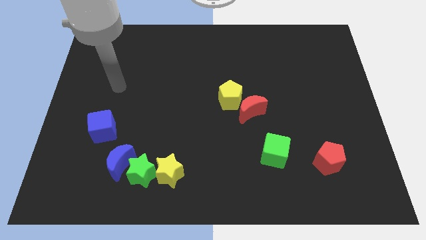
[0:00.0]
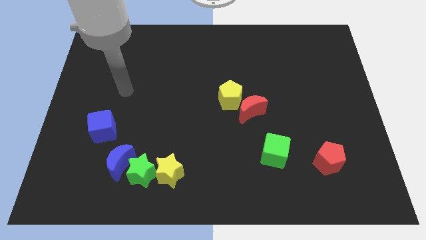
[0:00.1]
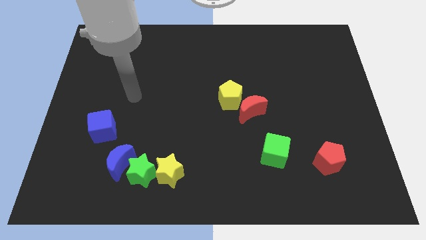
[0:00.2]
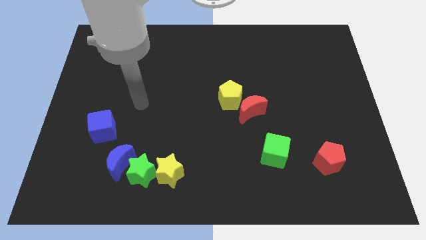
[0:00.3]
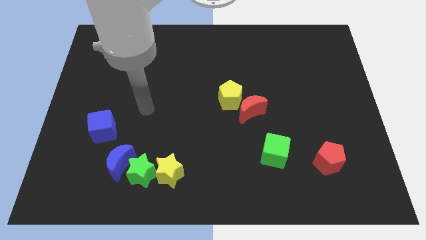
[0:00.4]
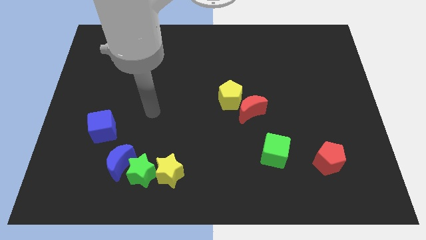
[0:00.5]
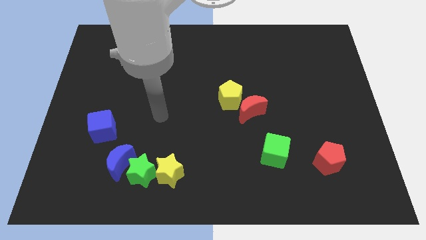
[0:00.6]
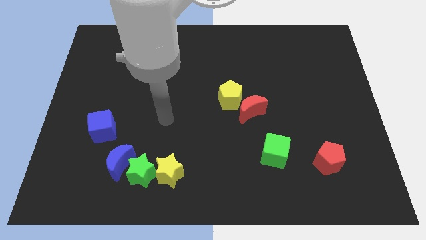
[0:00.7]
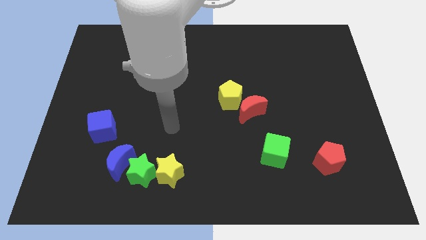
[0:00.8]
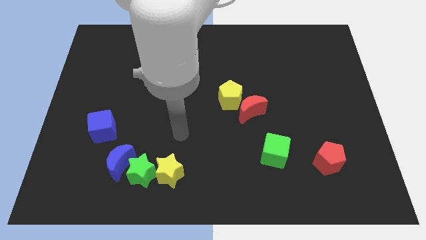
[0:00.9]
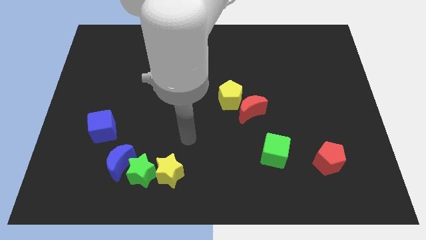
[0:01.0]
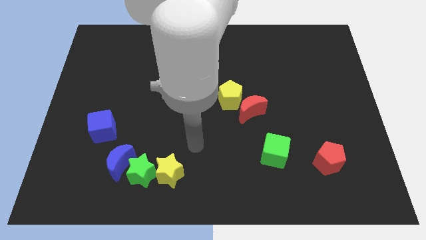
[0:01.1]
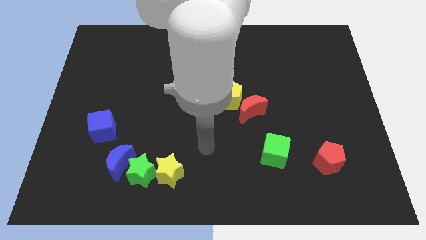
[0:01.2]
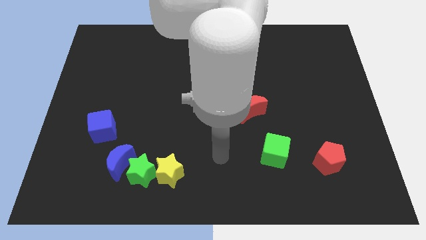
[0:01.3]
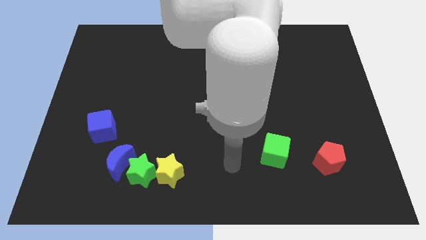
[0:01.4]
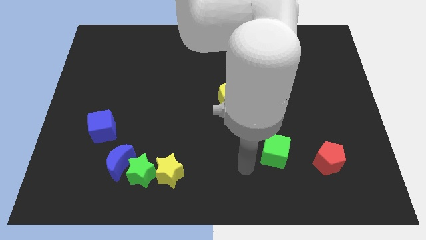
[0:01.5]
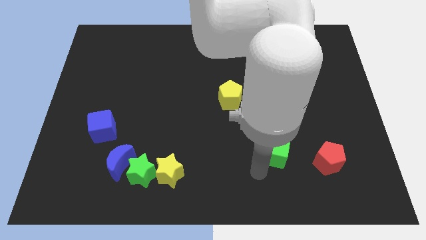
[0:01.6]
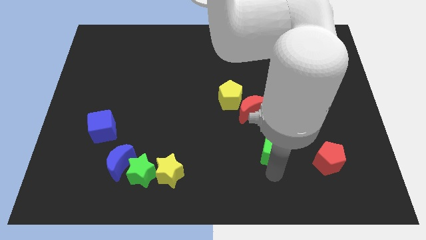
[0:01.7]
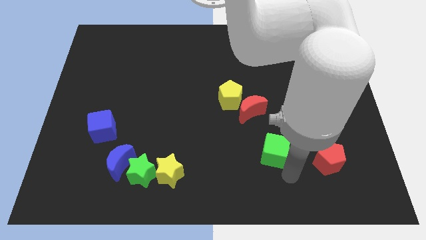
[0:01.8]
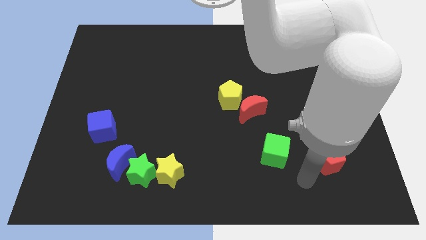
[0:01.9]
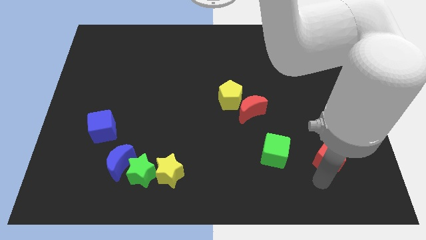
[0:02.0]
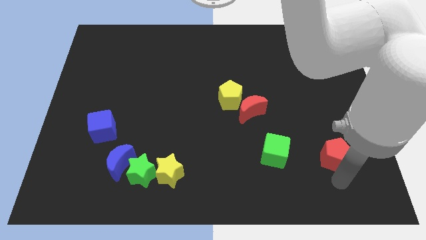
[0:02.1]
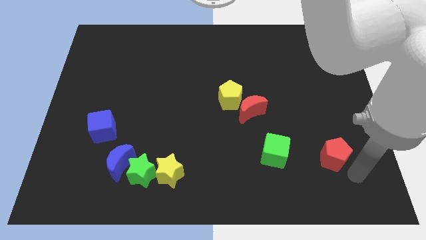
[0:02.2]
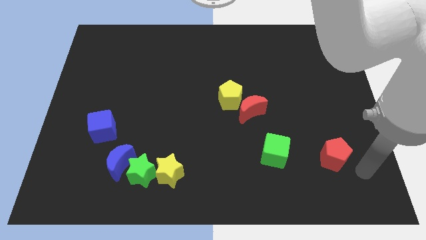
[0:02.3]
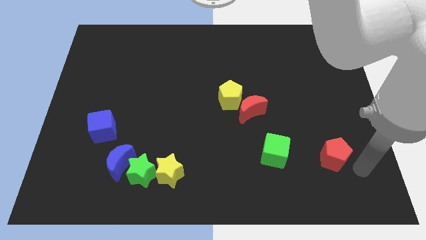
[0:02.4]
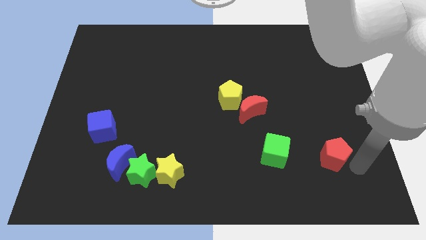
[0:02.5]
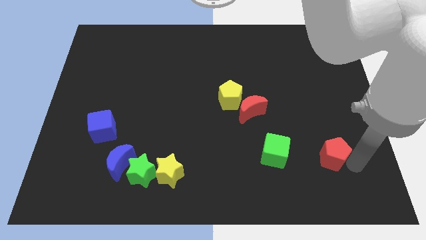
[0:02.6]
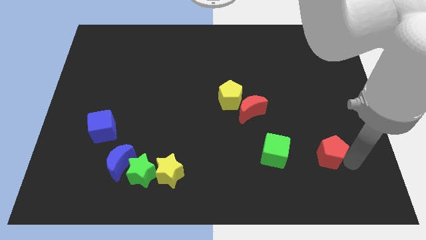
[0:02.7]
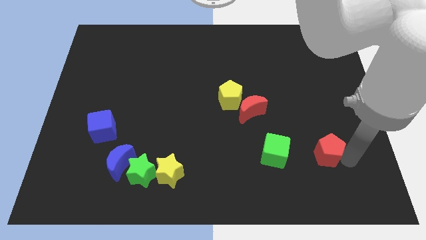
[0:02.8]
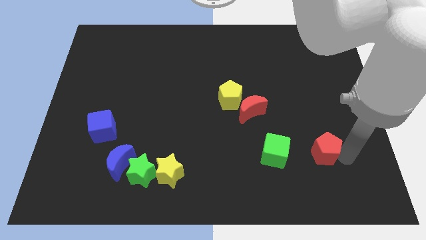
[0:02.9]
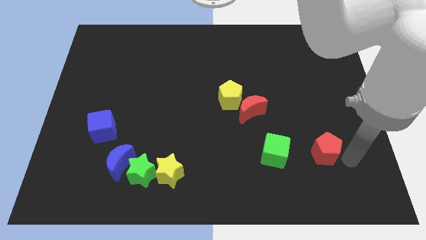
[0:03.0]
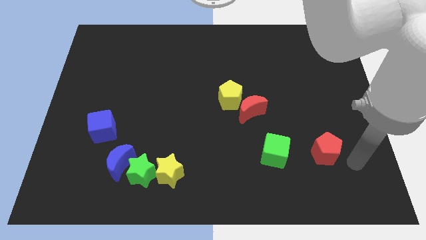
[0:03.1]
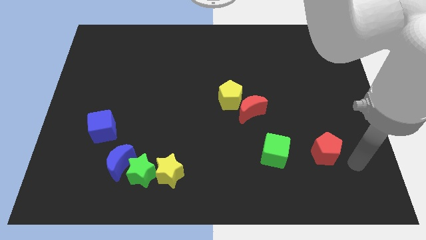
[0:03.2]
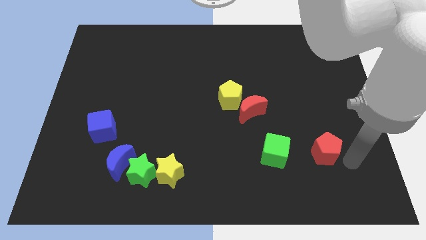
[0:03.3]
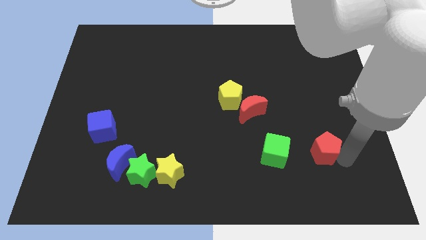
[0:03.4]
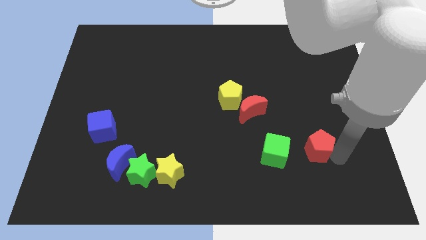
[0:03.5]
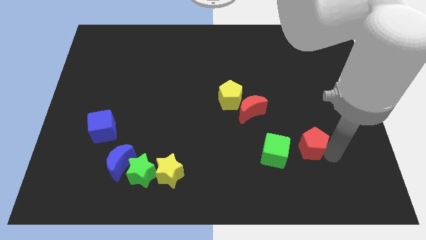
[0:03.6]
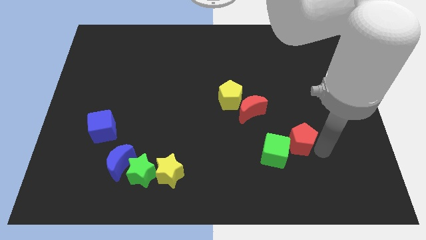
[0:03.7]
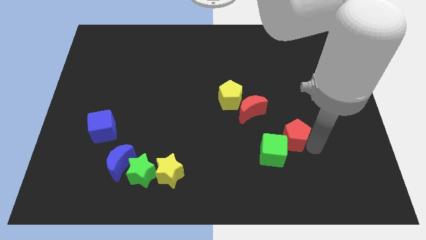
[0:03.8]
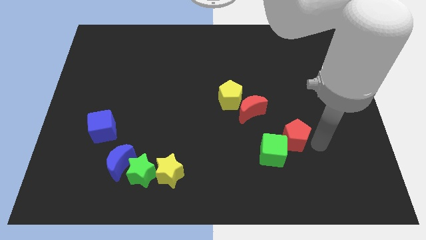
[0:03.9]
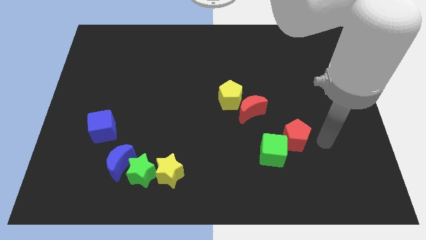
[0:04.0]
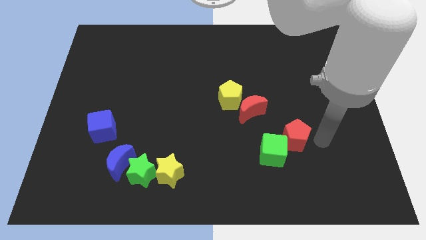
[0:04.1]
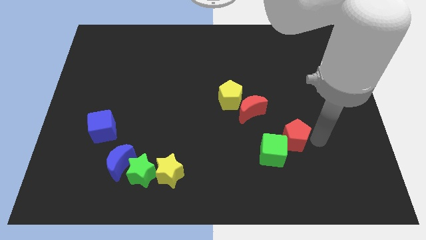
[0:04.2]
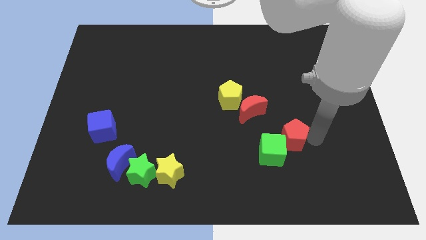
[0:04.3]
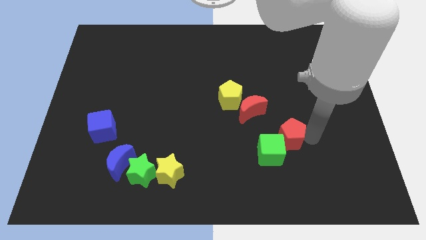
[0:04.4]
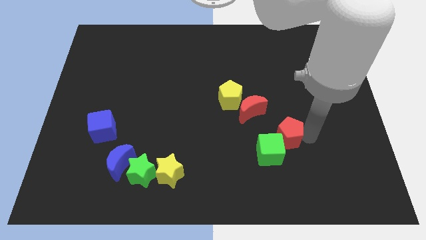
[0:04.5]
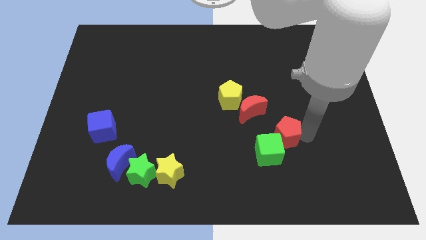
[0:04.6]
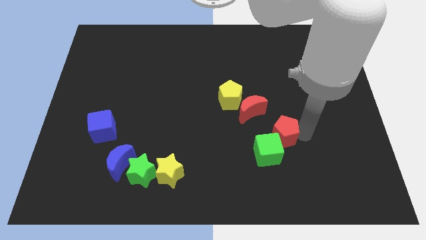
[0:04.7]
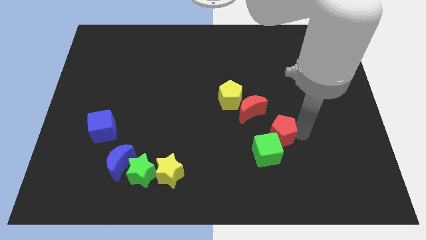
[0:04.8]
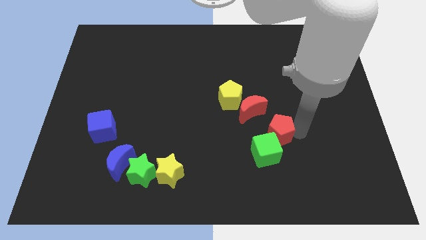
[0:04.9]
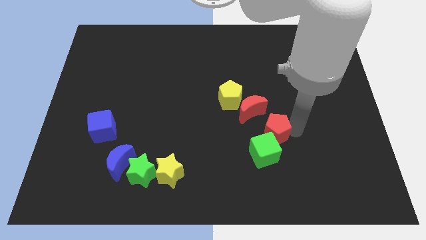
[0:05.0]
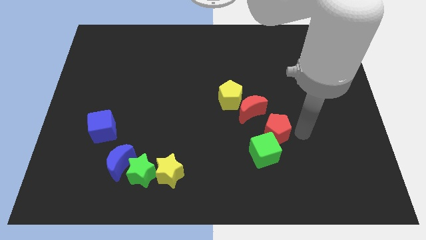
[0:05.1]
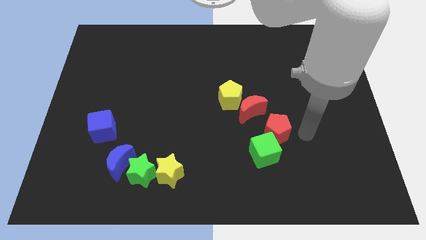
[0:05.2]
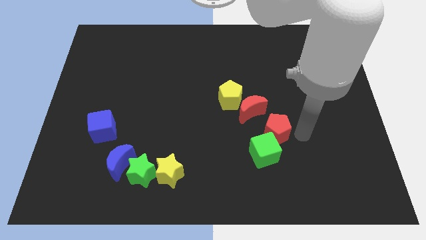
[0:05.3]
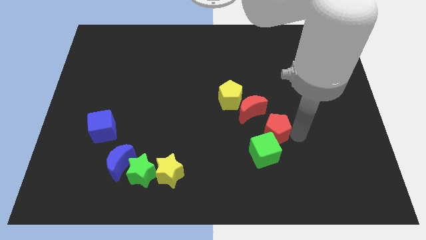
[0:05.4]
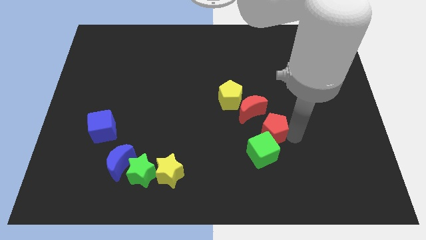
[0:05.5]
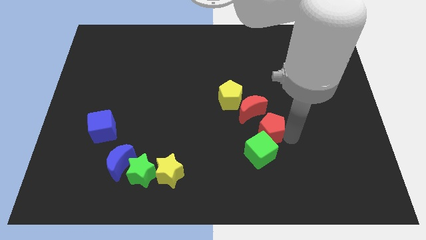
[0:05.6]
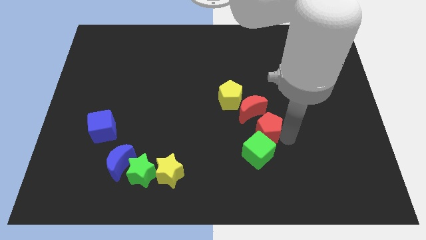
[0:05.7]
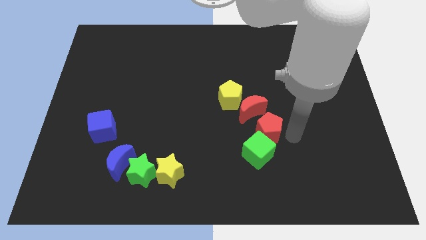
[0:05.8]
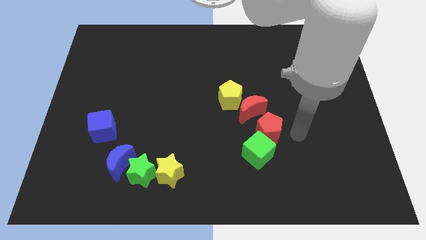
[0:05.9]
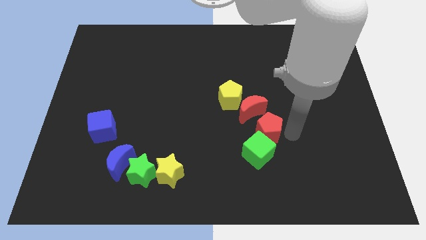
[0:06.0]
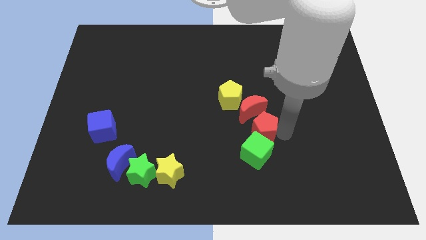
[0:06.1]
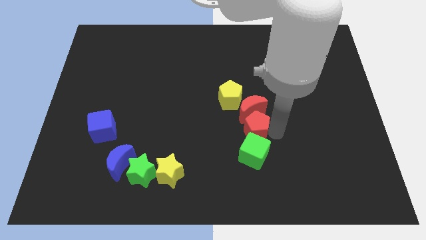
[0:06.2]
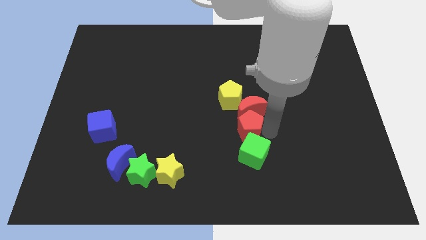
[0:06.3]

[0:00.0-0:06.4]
push the red pentagon to the middle of the board
